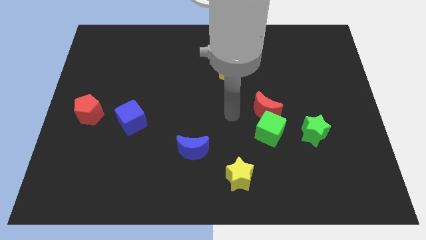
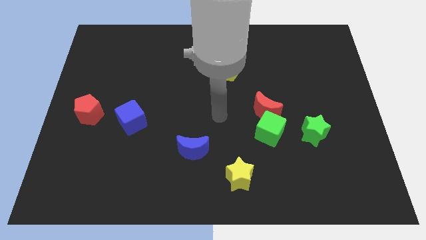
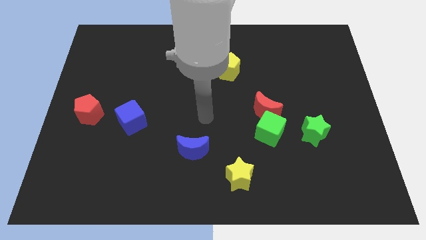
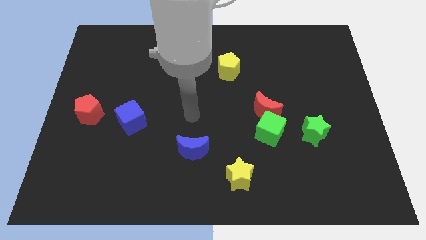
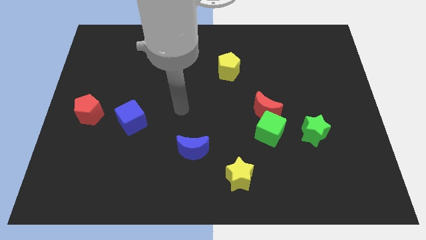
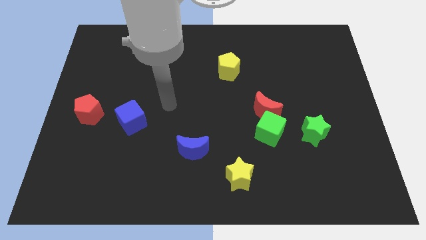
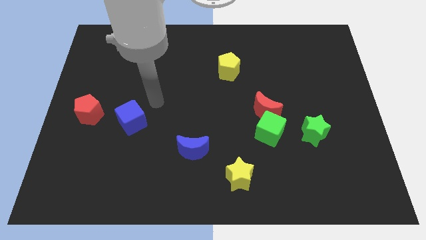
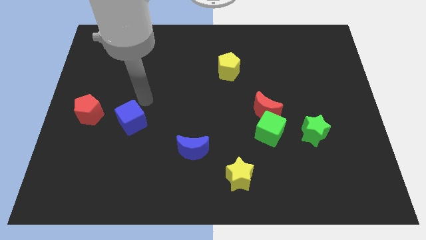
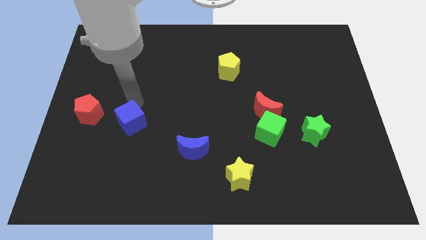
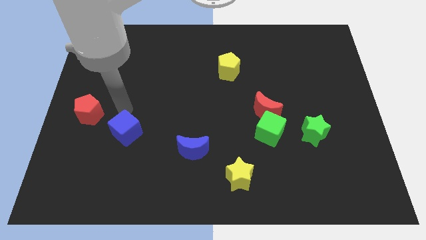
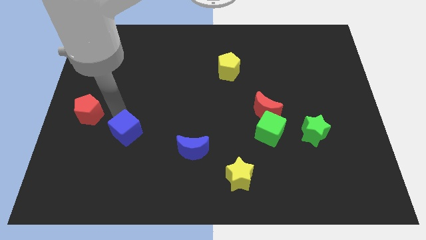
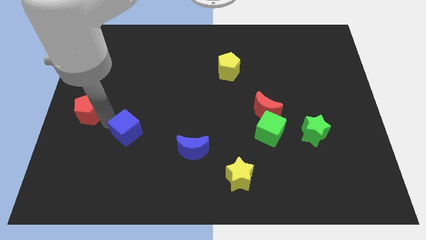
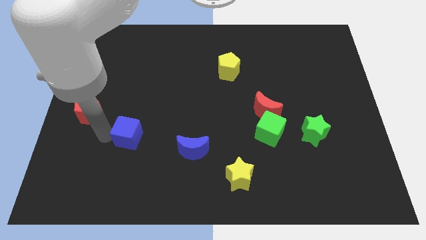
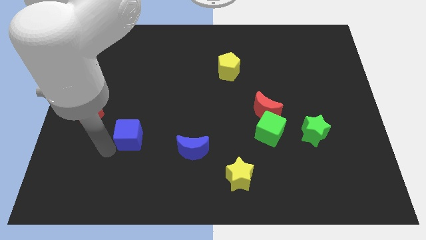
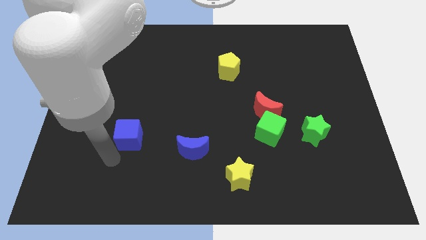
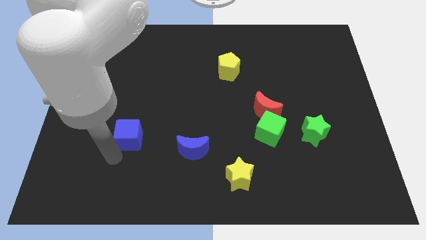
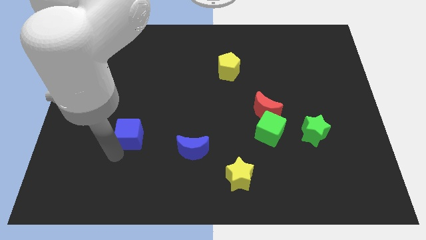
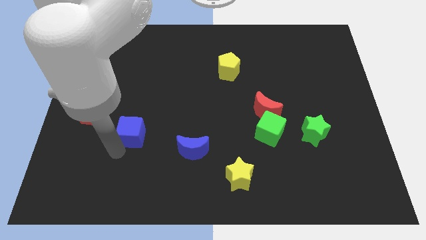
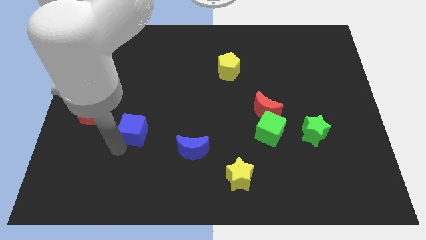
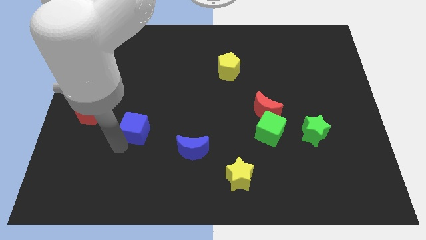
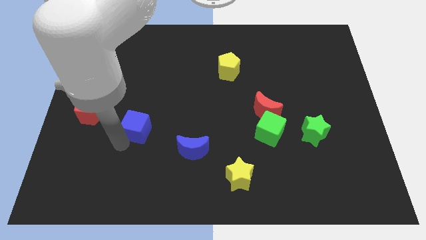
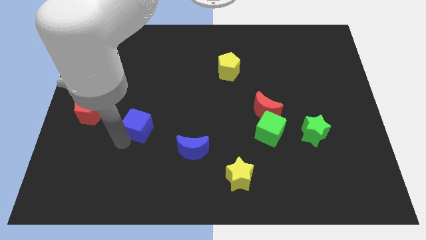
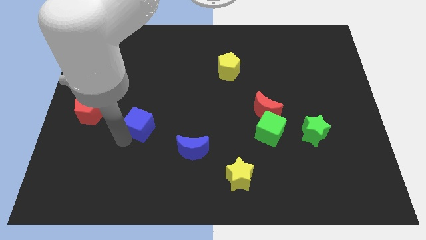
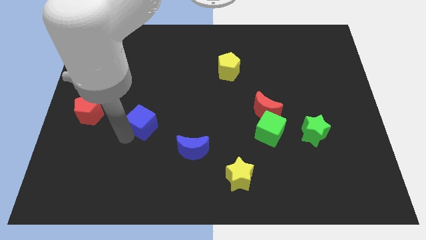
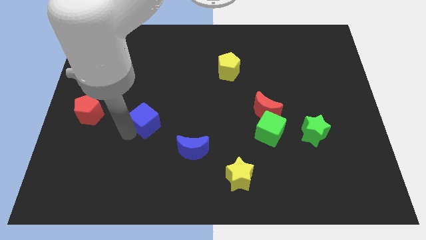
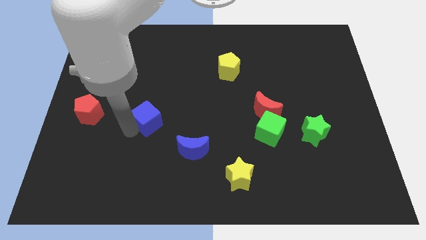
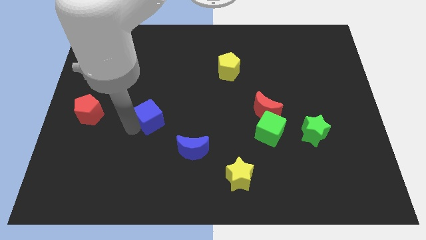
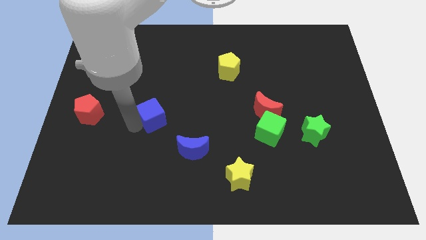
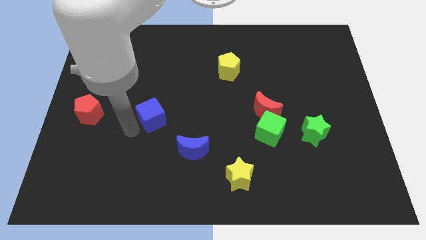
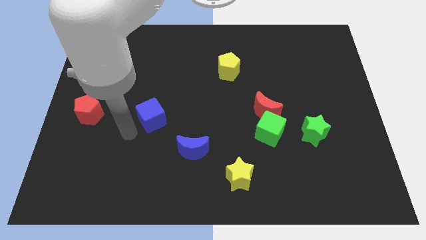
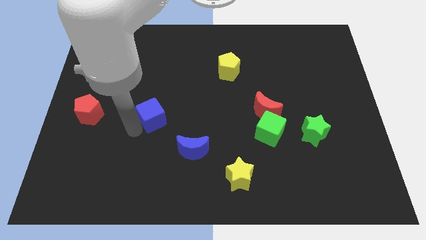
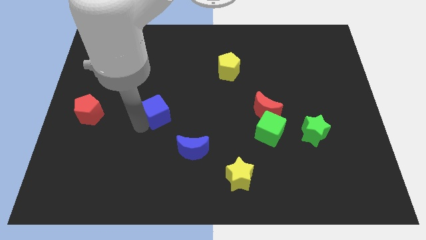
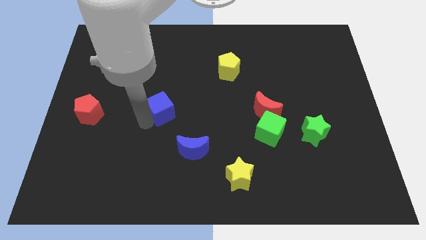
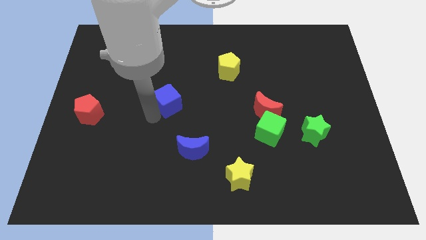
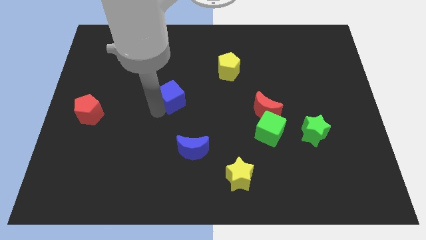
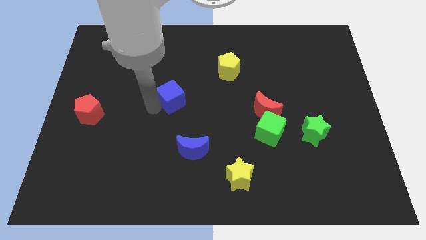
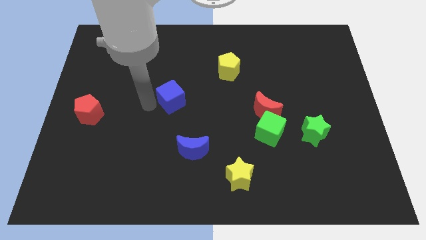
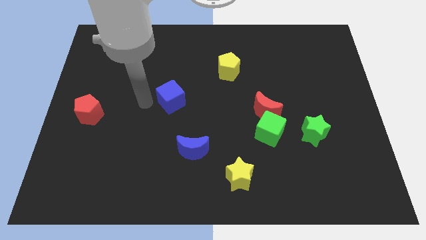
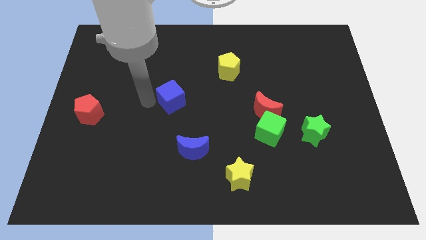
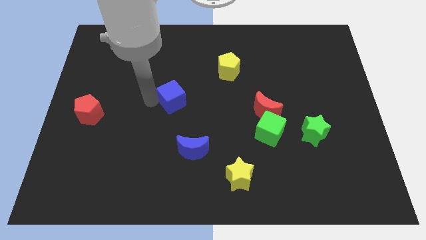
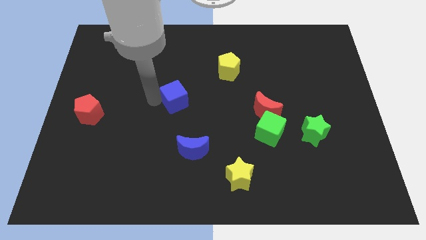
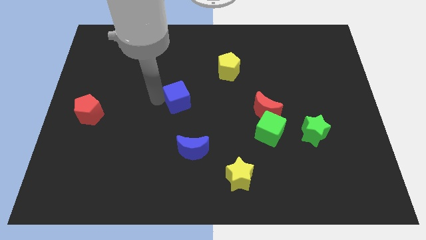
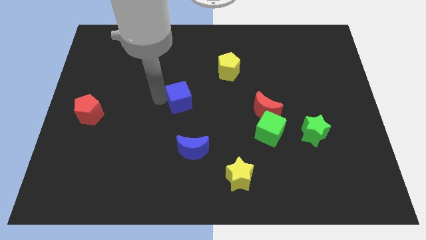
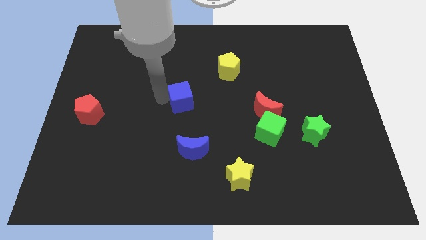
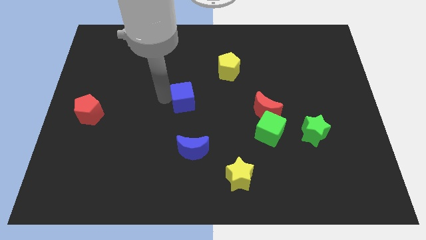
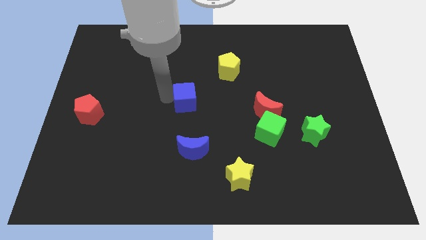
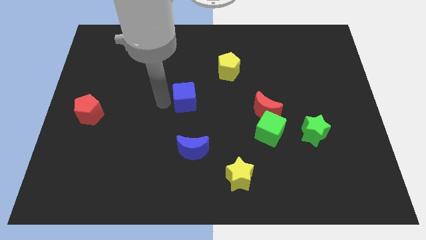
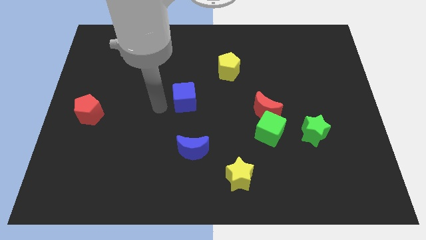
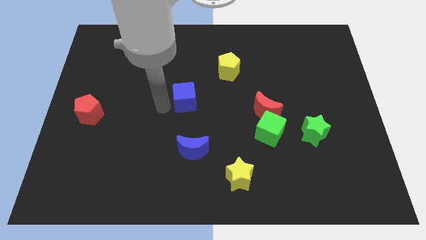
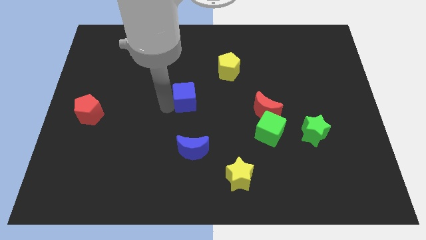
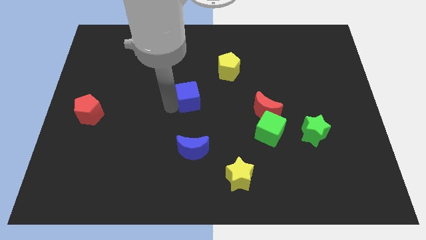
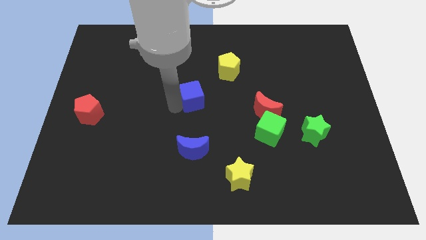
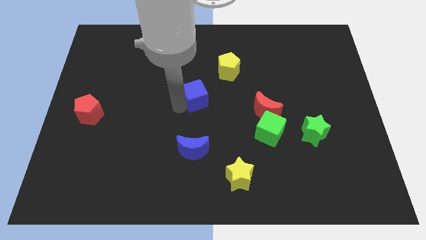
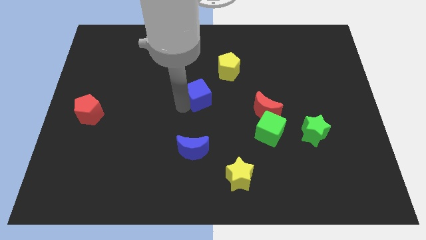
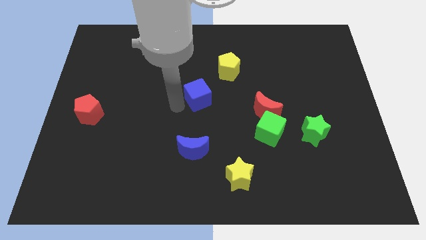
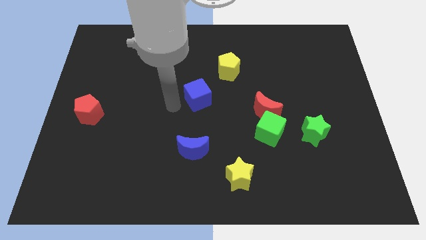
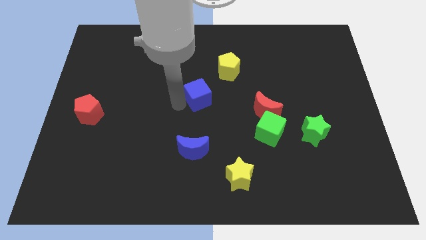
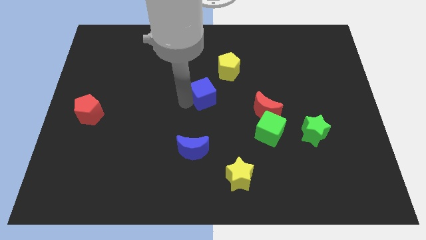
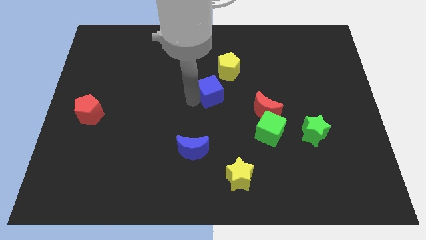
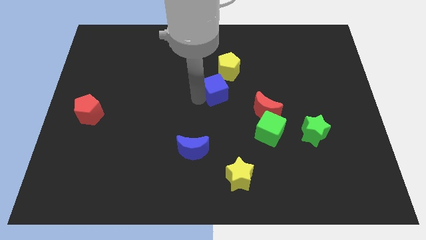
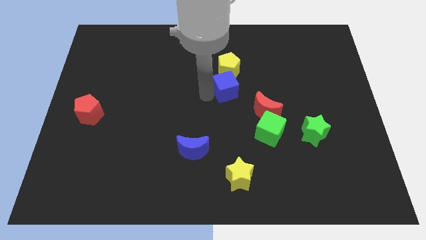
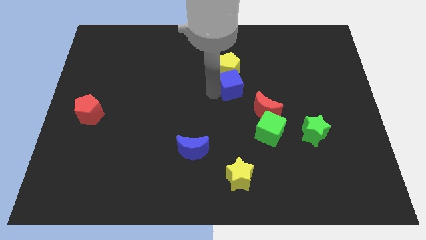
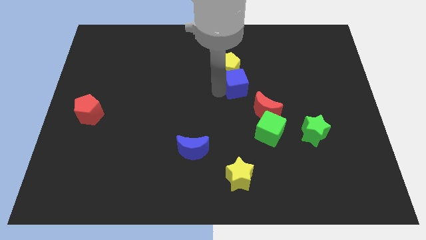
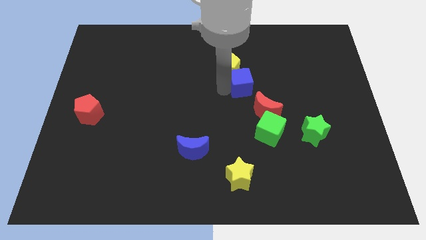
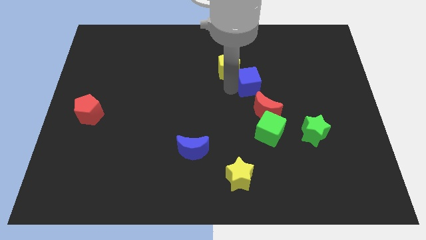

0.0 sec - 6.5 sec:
put the blue cube to the top of the red moon

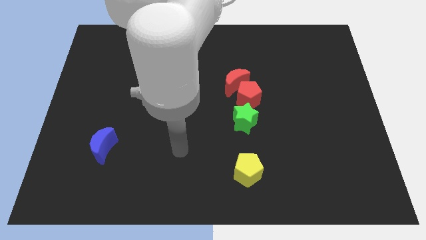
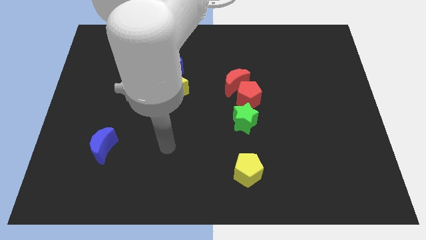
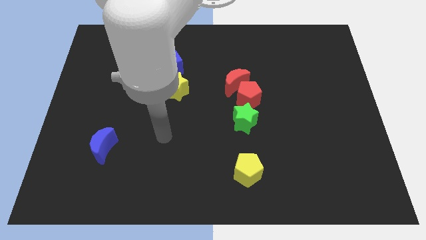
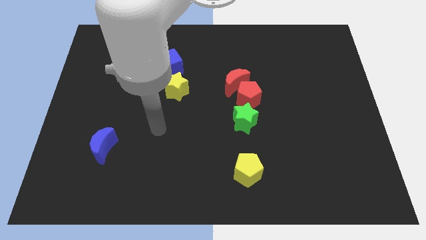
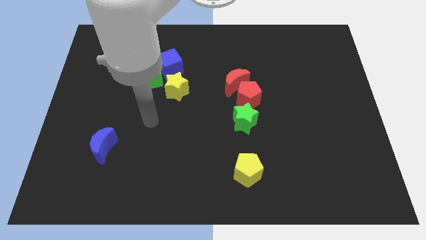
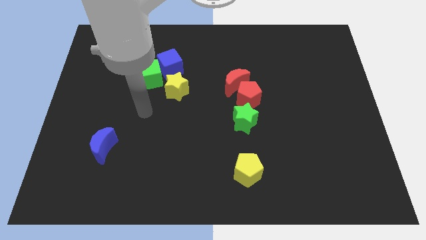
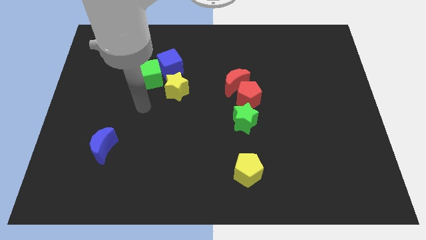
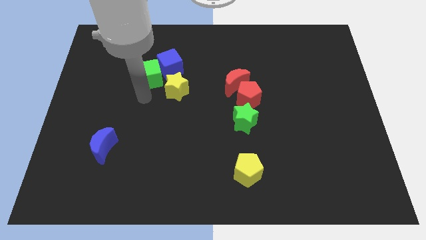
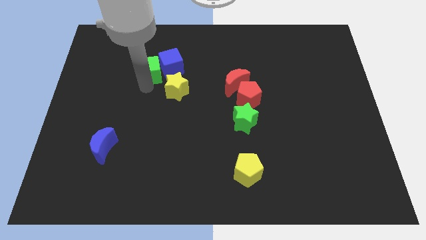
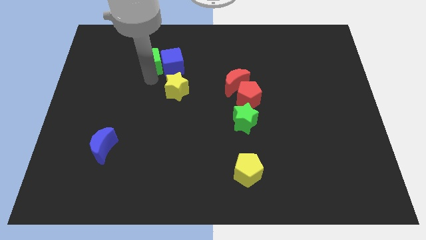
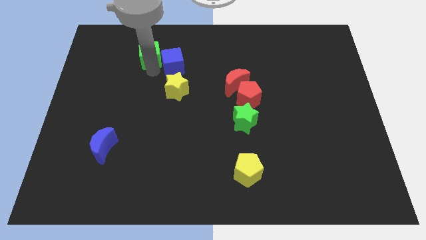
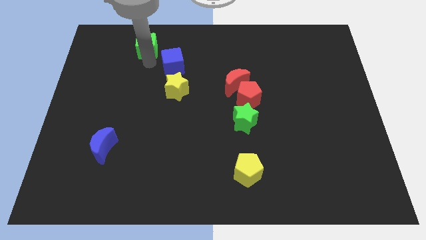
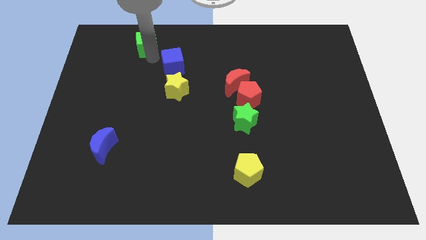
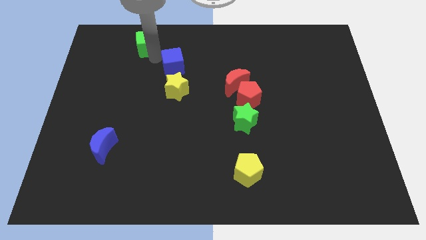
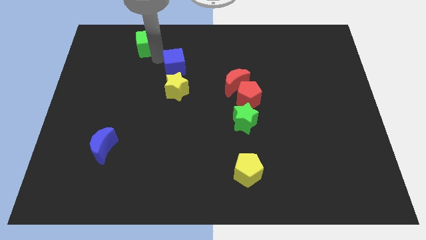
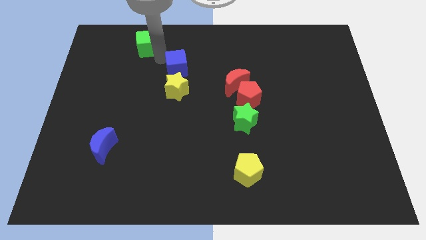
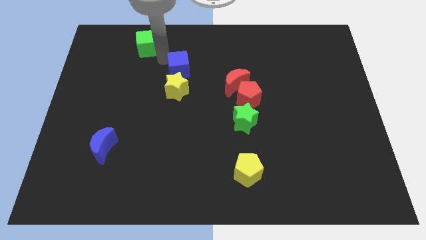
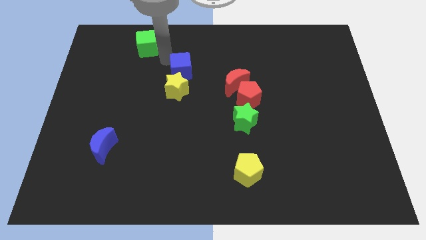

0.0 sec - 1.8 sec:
put the blue cube to the top right of the yellow star
